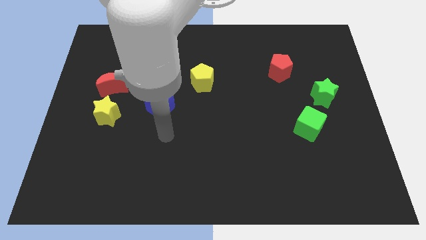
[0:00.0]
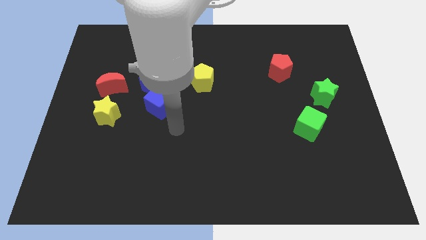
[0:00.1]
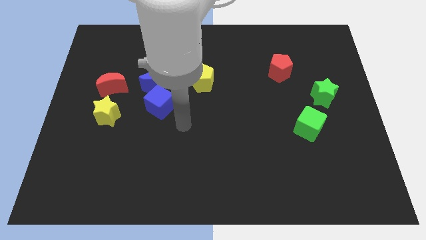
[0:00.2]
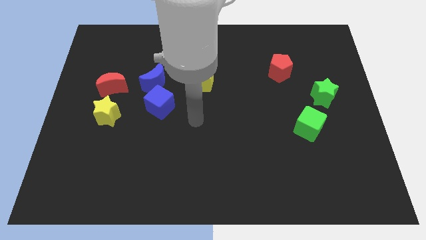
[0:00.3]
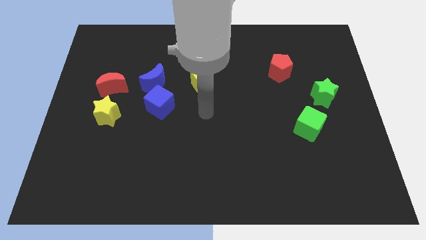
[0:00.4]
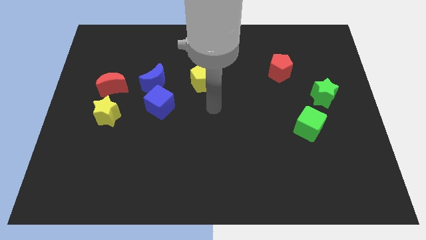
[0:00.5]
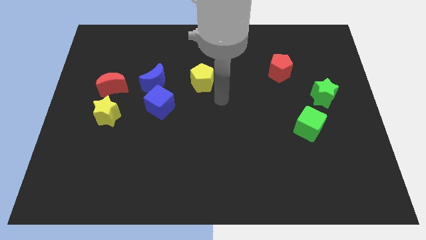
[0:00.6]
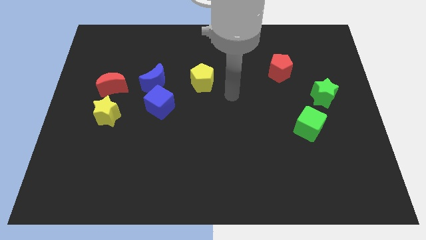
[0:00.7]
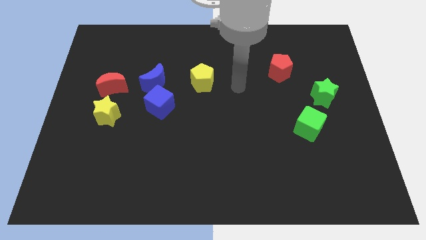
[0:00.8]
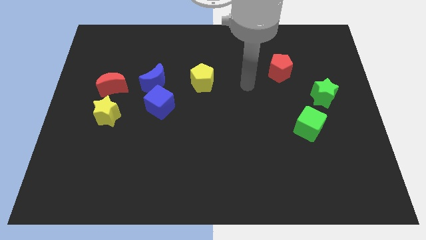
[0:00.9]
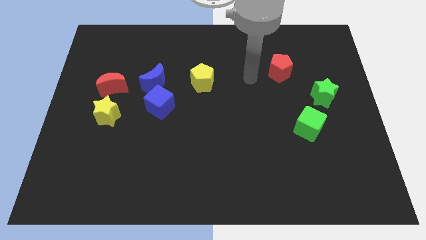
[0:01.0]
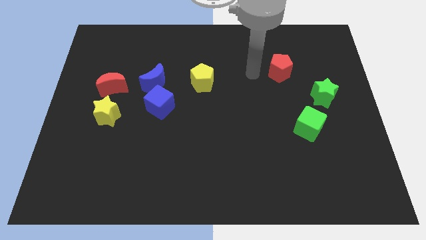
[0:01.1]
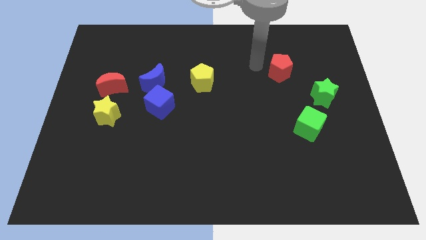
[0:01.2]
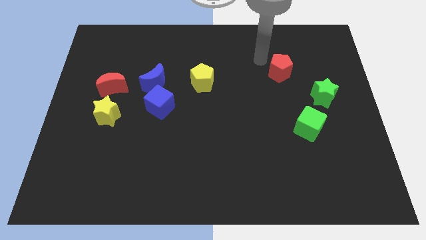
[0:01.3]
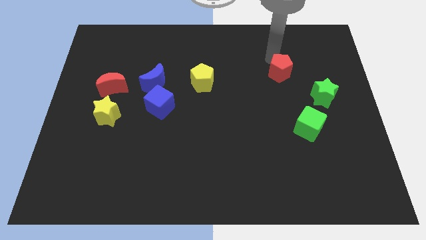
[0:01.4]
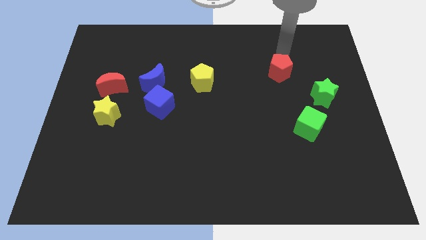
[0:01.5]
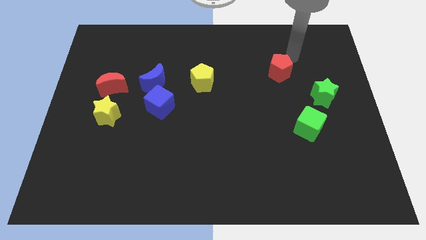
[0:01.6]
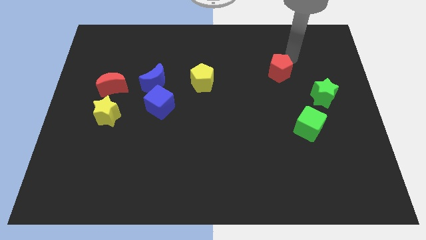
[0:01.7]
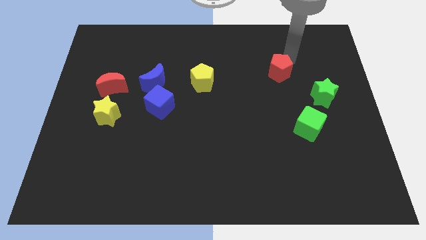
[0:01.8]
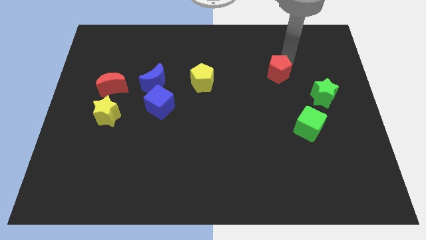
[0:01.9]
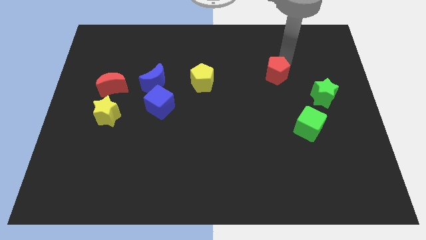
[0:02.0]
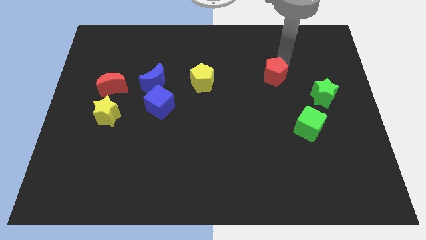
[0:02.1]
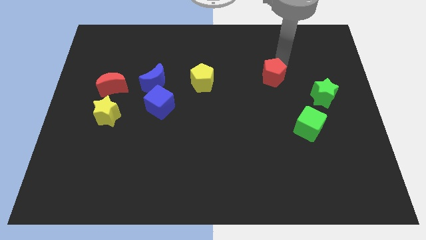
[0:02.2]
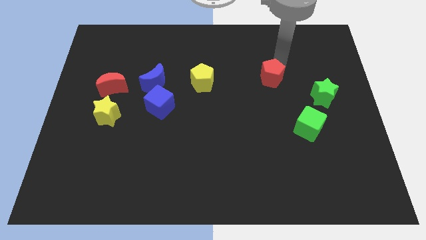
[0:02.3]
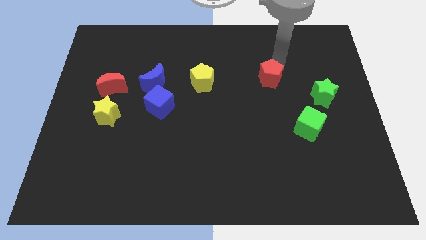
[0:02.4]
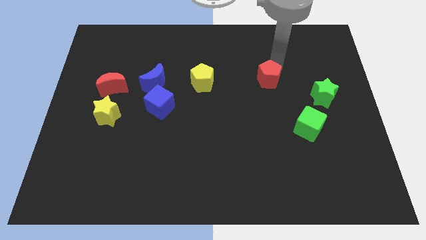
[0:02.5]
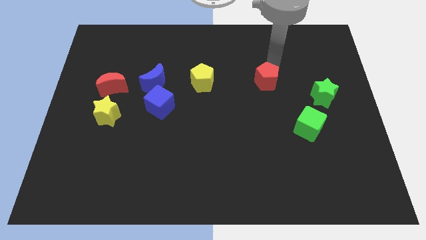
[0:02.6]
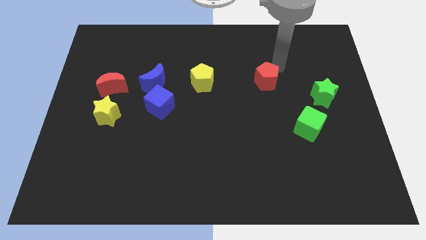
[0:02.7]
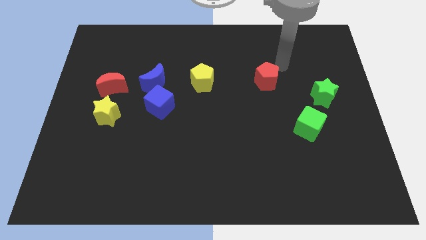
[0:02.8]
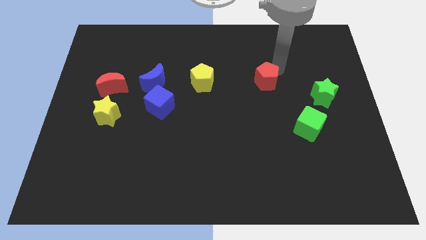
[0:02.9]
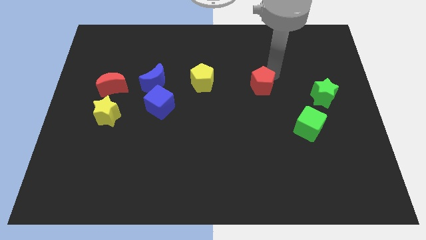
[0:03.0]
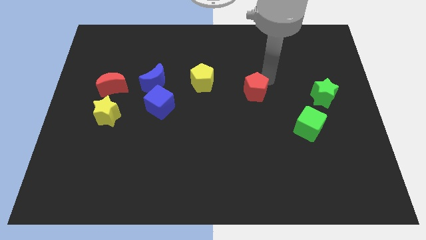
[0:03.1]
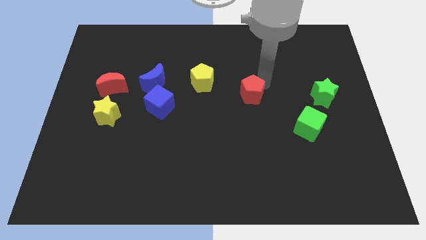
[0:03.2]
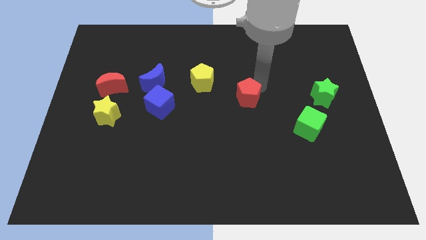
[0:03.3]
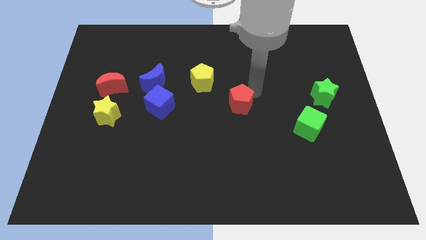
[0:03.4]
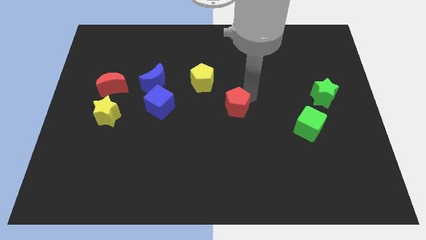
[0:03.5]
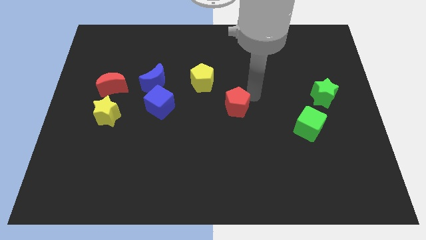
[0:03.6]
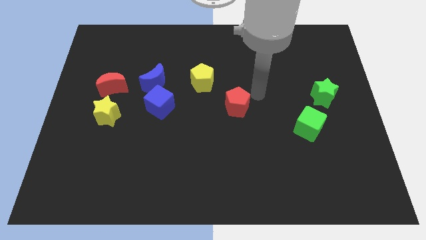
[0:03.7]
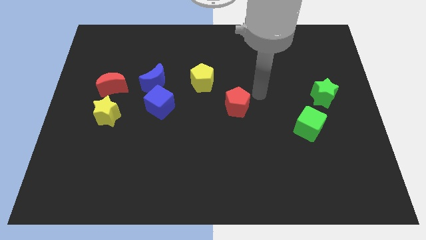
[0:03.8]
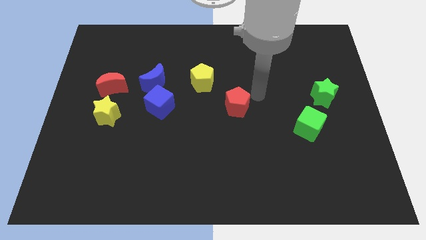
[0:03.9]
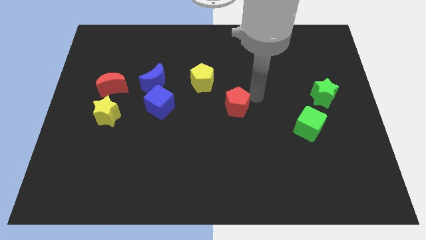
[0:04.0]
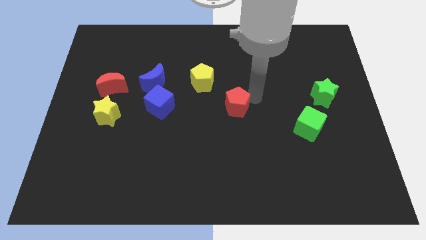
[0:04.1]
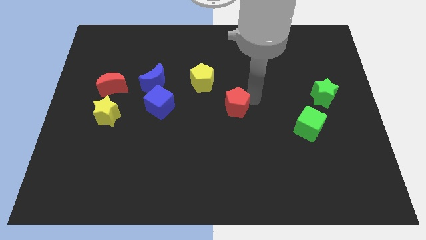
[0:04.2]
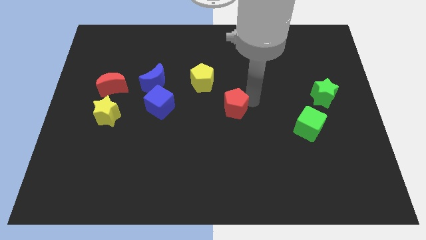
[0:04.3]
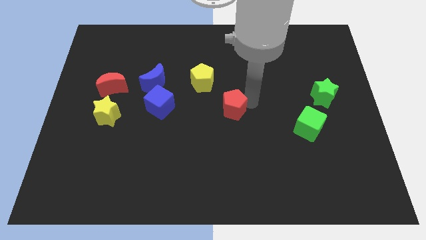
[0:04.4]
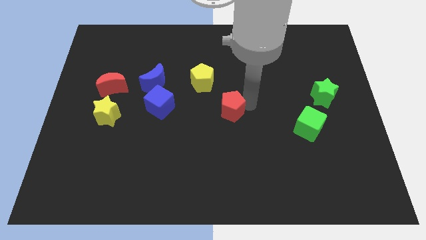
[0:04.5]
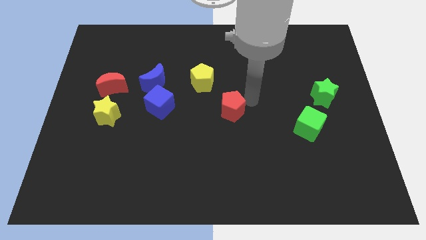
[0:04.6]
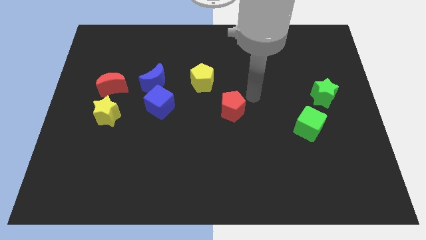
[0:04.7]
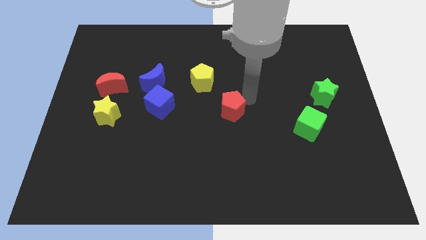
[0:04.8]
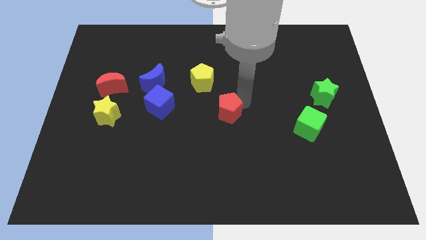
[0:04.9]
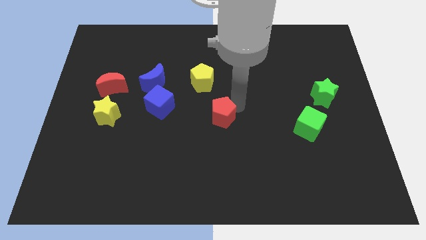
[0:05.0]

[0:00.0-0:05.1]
push the red pentagon downwards and to the left

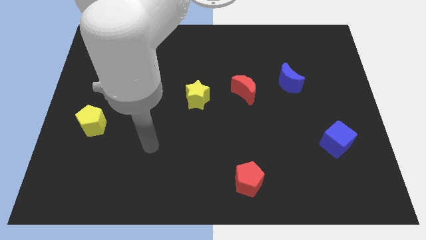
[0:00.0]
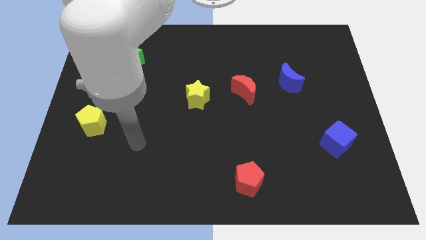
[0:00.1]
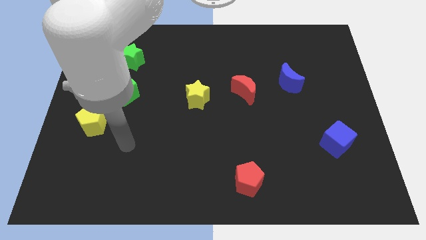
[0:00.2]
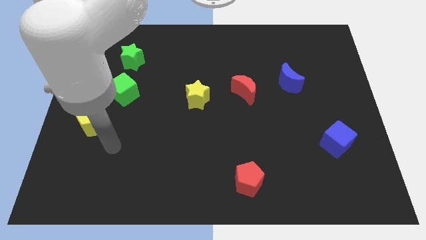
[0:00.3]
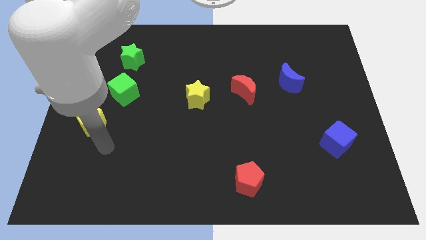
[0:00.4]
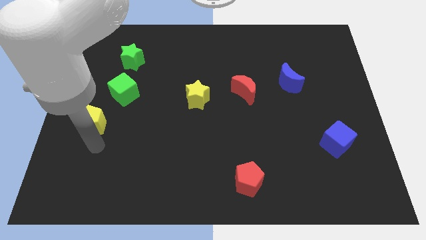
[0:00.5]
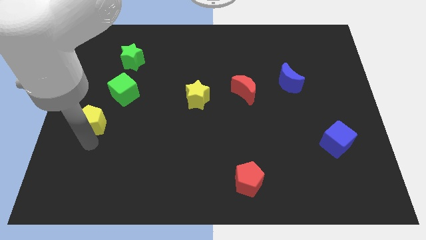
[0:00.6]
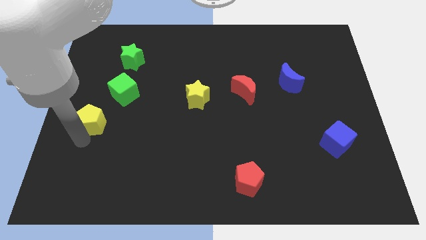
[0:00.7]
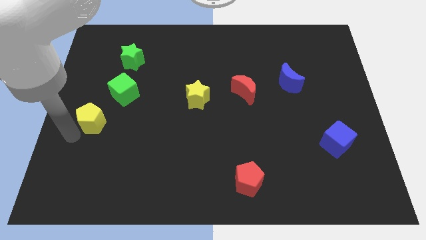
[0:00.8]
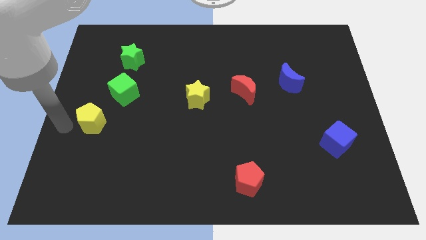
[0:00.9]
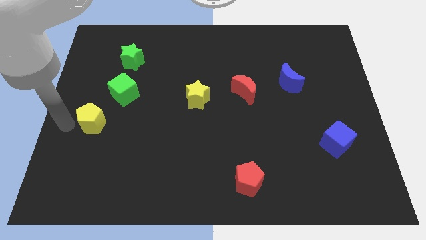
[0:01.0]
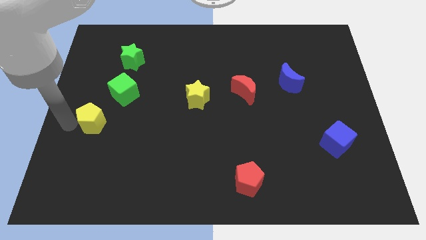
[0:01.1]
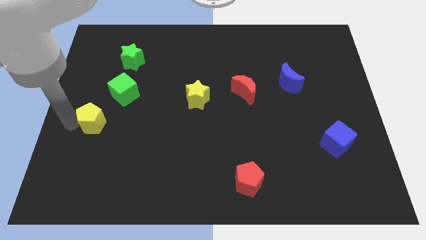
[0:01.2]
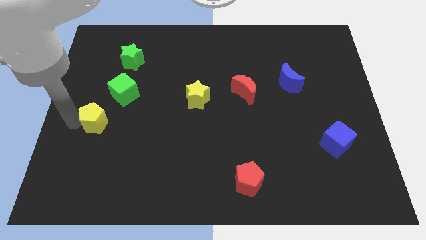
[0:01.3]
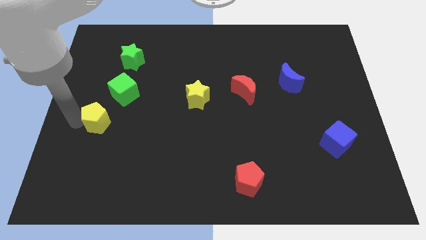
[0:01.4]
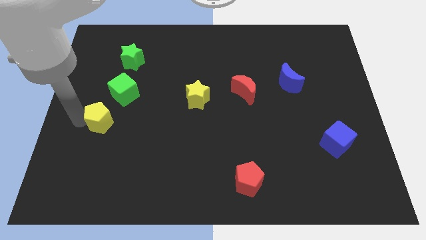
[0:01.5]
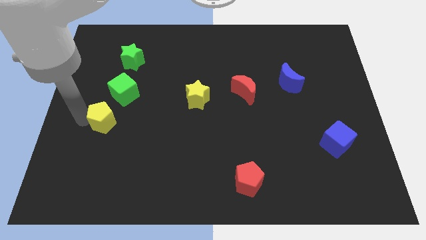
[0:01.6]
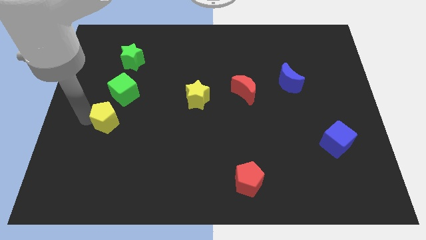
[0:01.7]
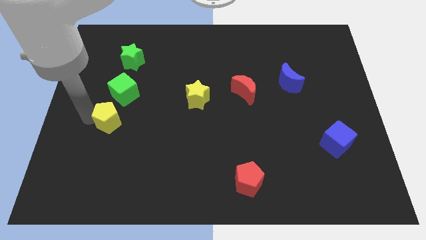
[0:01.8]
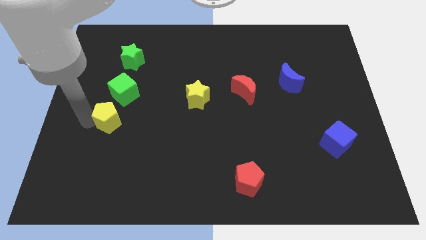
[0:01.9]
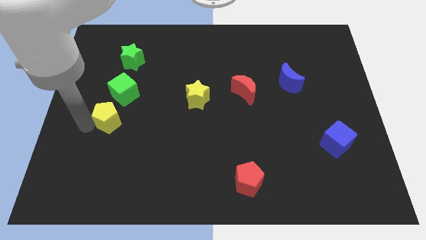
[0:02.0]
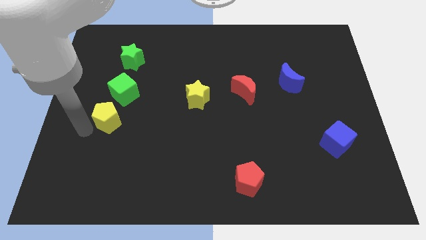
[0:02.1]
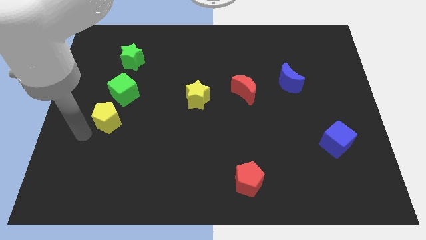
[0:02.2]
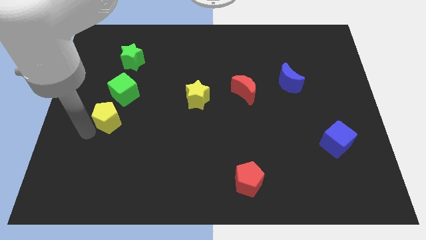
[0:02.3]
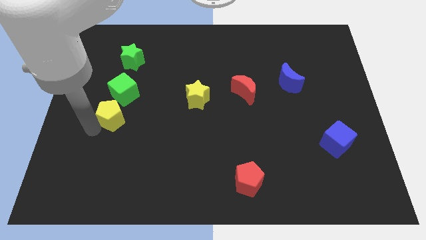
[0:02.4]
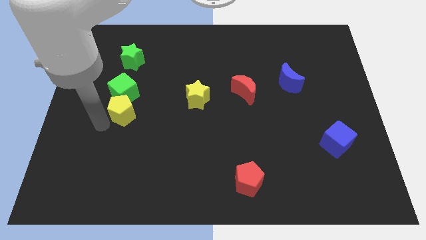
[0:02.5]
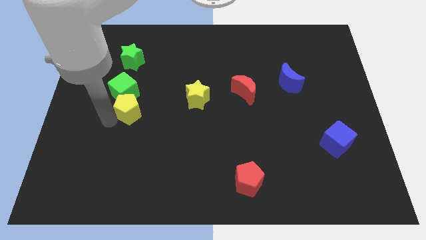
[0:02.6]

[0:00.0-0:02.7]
move the yellow pentagon up and to the right diagonally a little bit

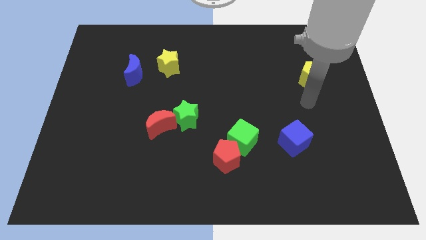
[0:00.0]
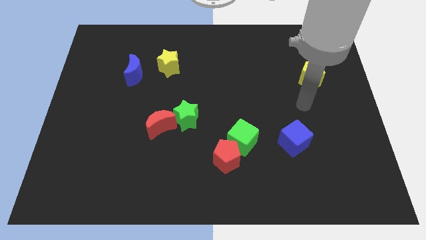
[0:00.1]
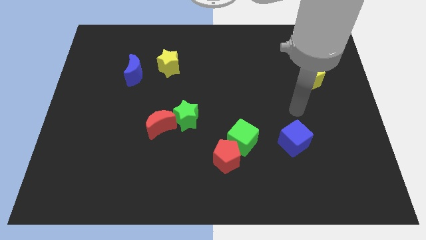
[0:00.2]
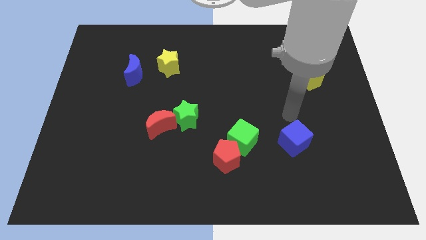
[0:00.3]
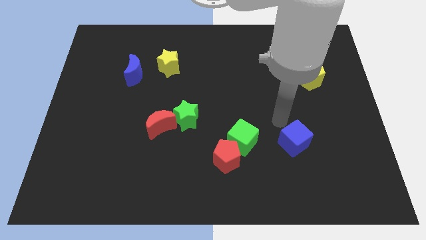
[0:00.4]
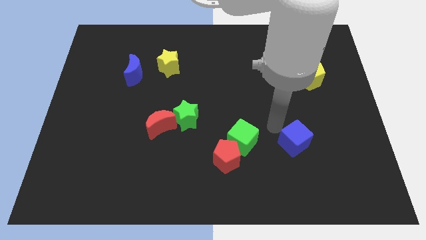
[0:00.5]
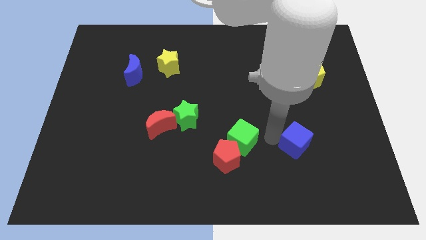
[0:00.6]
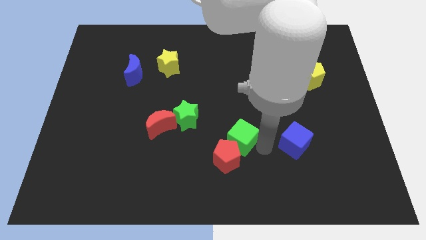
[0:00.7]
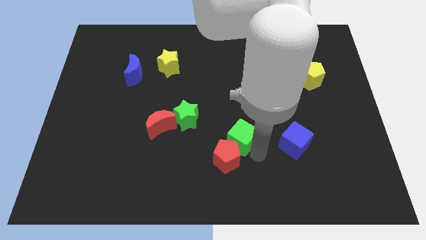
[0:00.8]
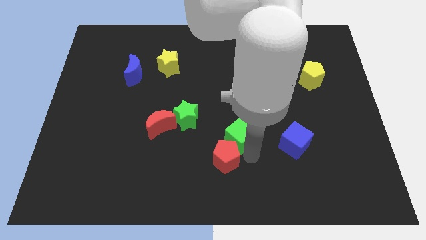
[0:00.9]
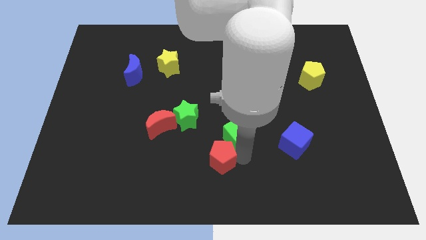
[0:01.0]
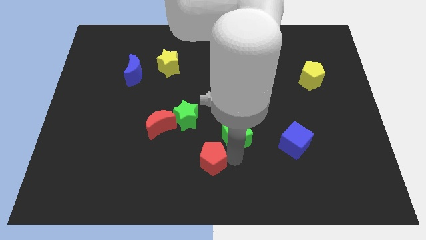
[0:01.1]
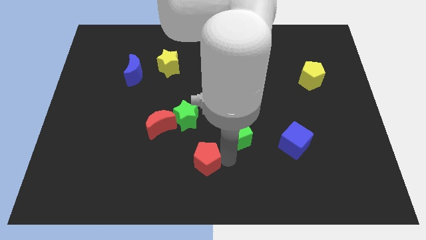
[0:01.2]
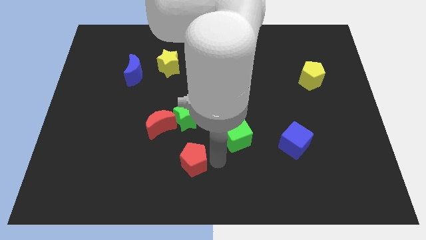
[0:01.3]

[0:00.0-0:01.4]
move the red pentagon left a bit
